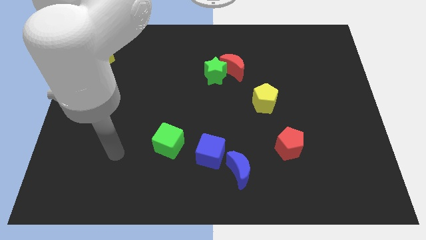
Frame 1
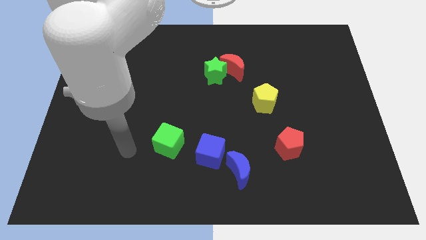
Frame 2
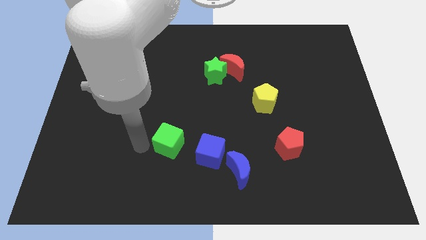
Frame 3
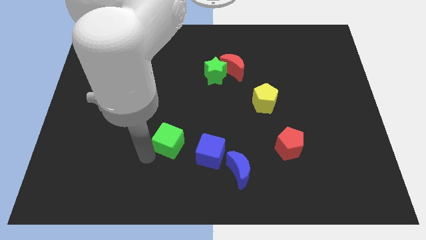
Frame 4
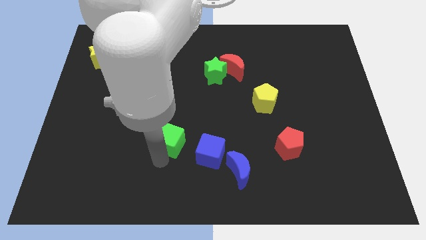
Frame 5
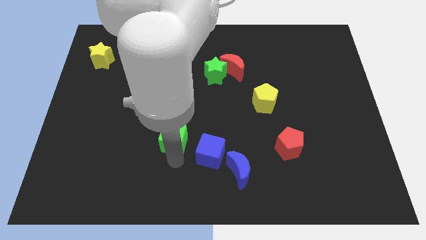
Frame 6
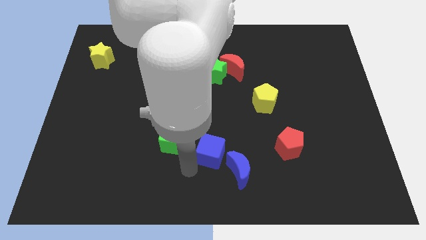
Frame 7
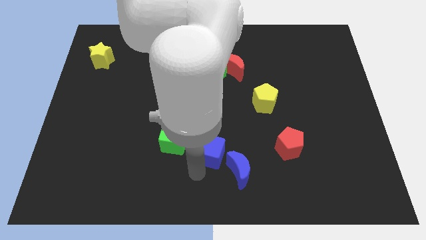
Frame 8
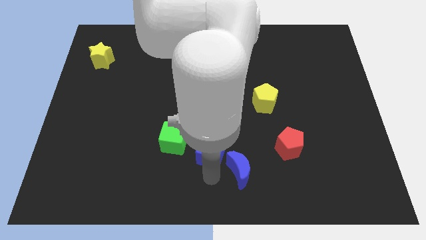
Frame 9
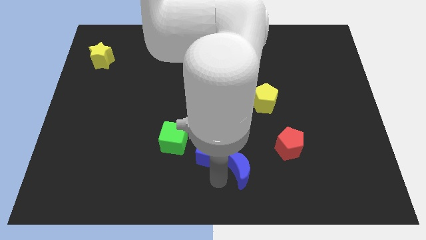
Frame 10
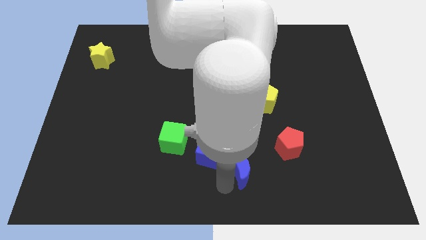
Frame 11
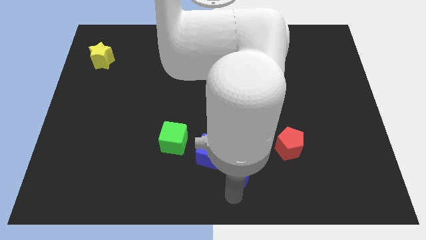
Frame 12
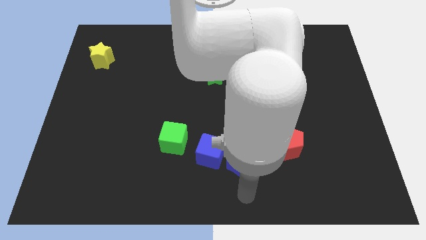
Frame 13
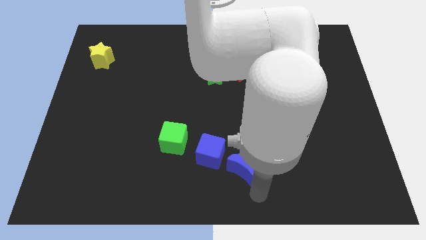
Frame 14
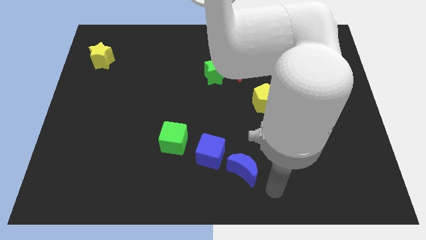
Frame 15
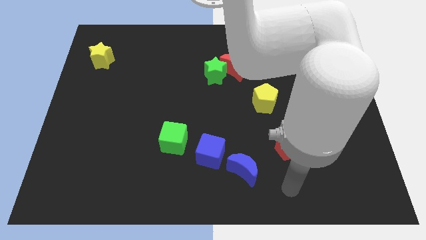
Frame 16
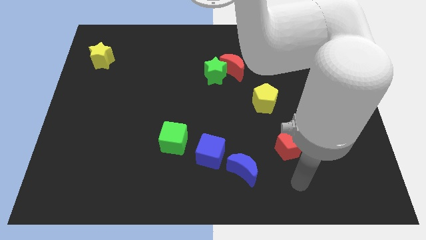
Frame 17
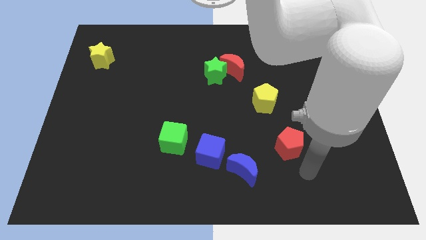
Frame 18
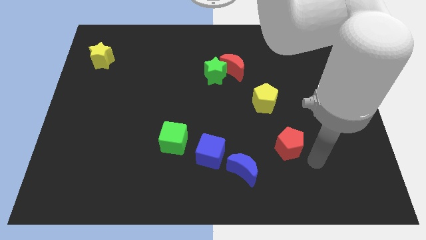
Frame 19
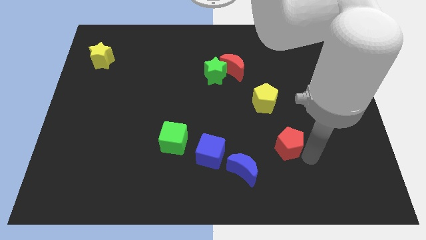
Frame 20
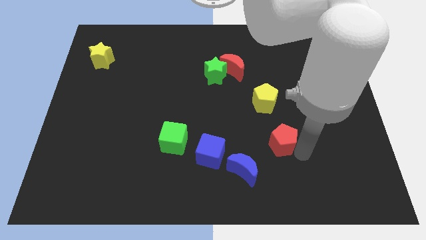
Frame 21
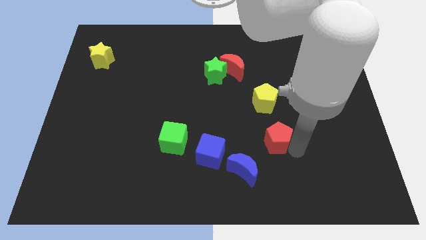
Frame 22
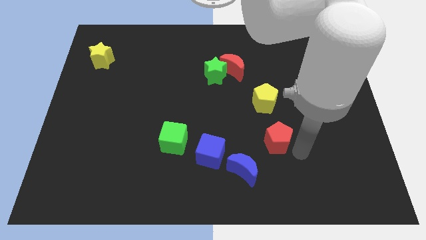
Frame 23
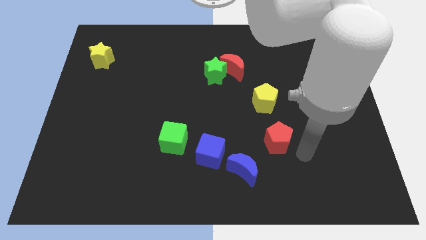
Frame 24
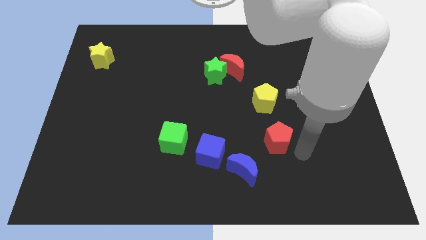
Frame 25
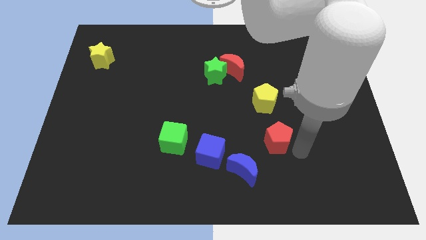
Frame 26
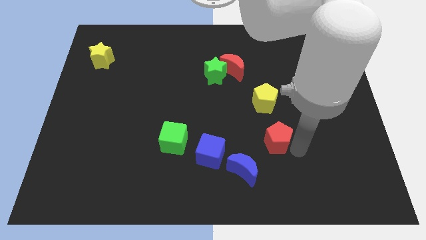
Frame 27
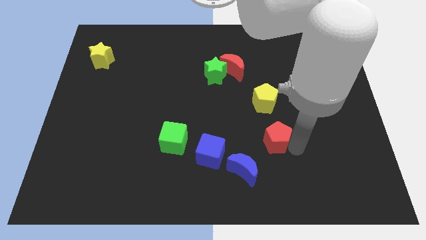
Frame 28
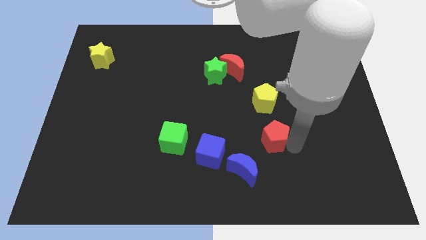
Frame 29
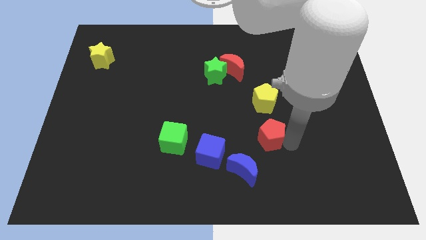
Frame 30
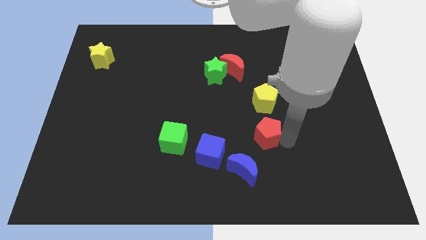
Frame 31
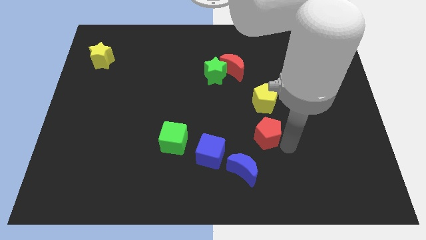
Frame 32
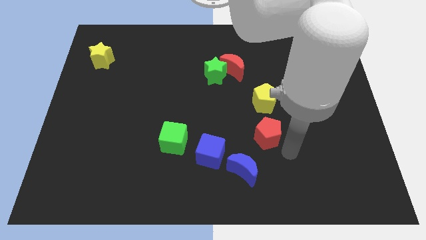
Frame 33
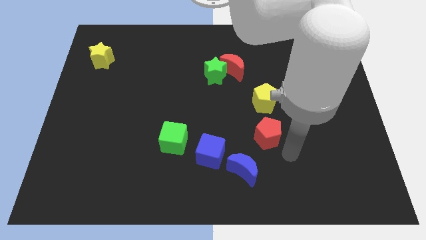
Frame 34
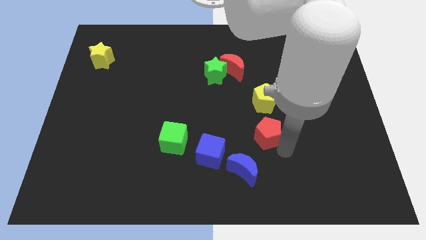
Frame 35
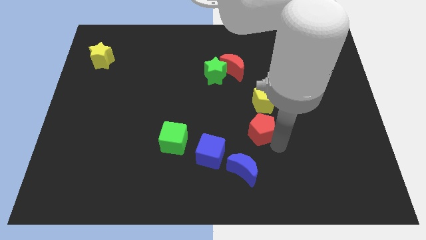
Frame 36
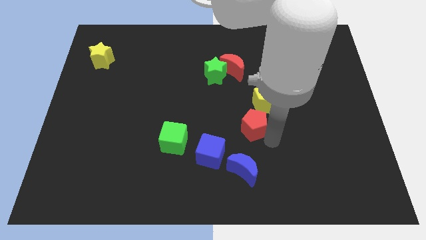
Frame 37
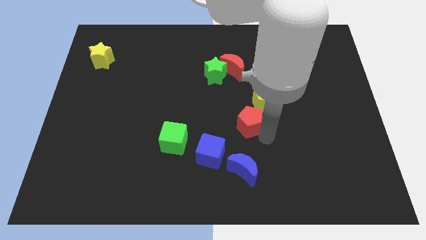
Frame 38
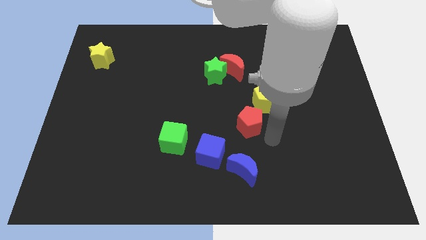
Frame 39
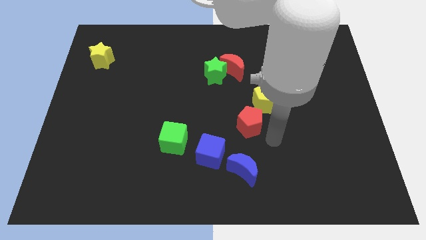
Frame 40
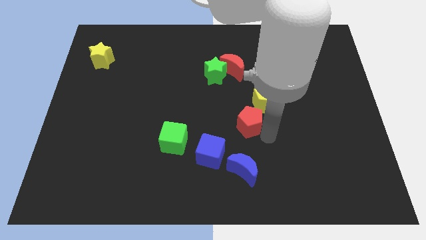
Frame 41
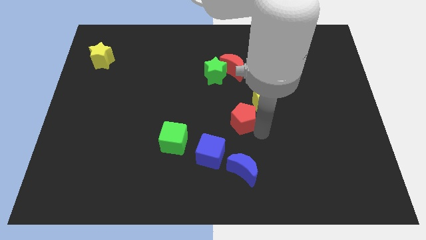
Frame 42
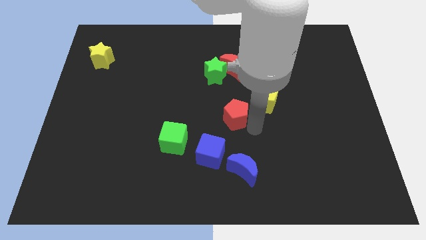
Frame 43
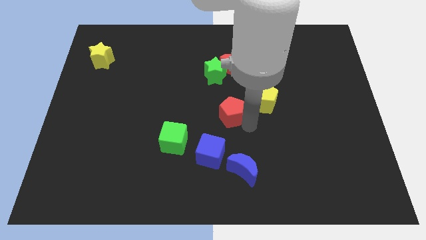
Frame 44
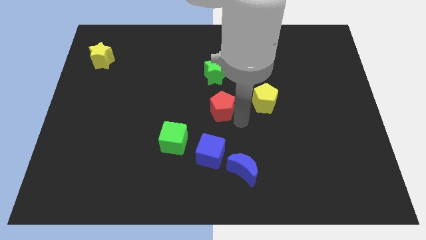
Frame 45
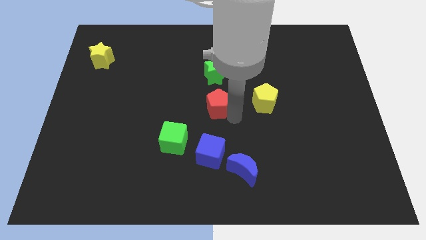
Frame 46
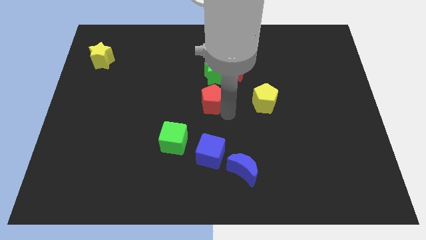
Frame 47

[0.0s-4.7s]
push the red pentagon up and left diagonally

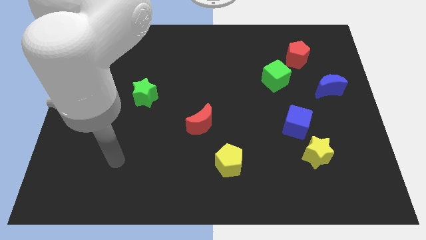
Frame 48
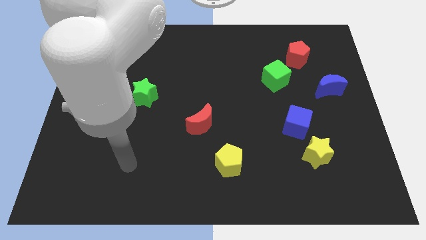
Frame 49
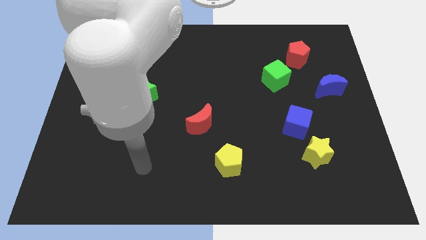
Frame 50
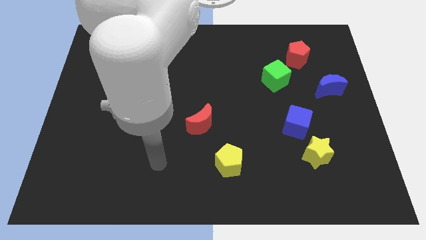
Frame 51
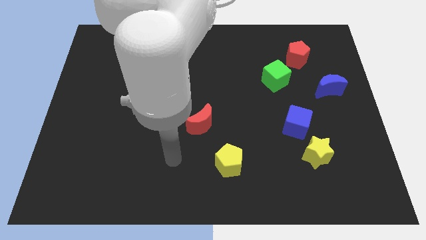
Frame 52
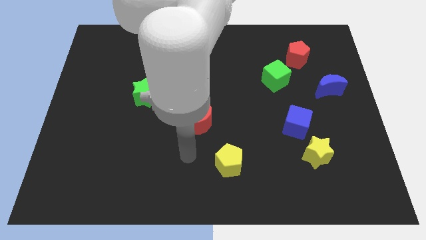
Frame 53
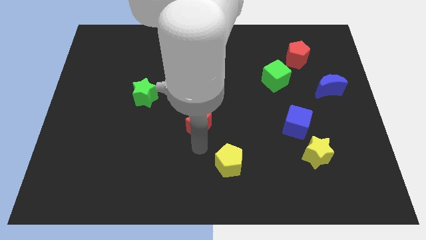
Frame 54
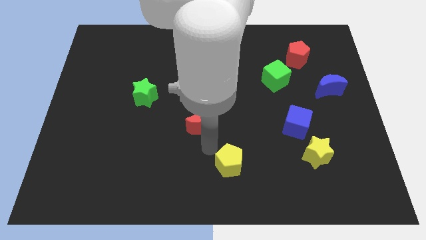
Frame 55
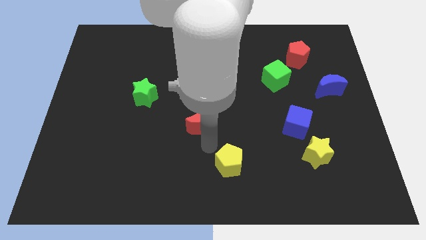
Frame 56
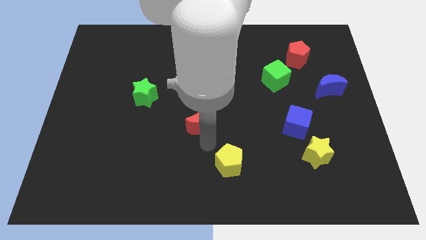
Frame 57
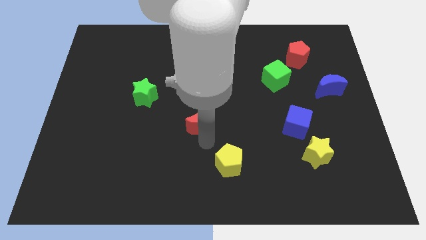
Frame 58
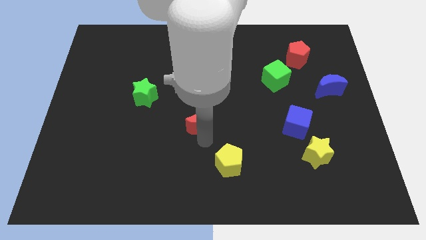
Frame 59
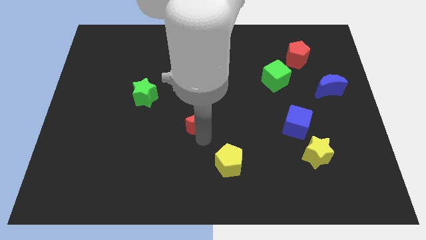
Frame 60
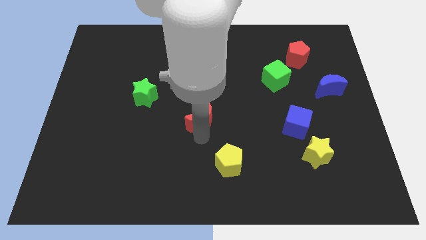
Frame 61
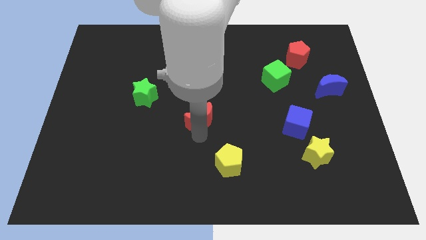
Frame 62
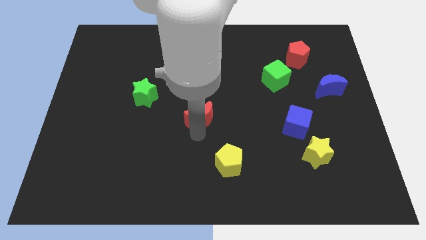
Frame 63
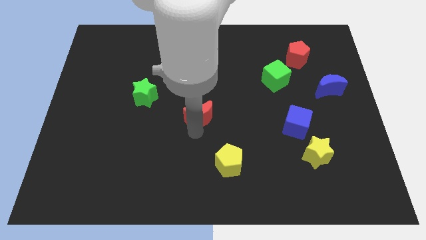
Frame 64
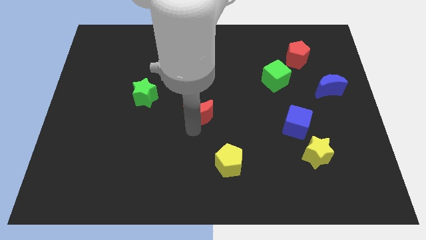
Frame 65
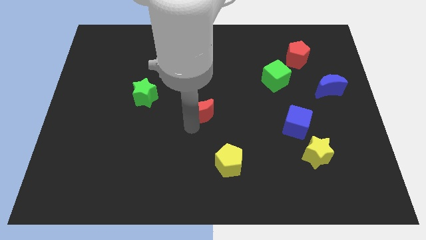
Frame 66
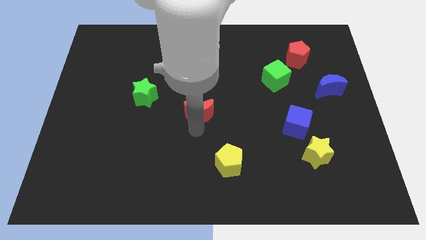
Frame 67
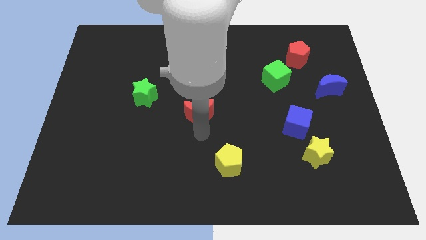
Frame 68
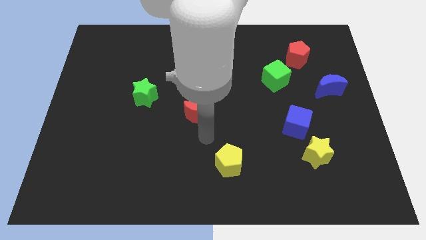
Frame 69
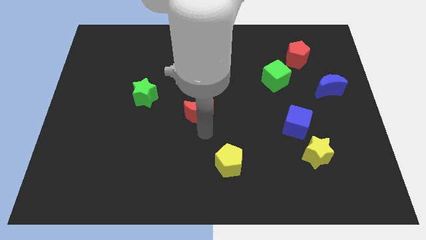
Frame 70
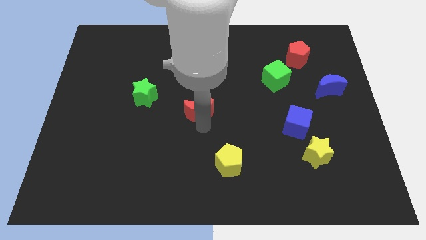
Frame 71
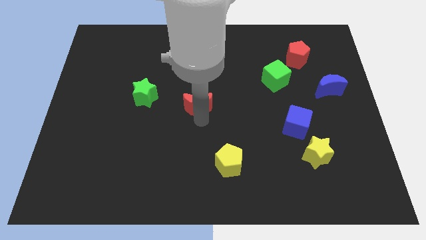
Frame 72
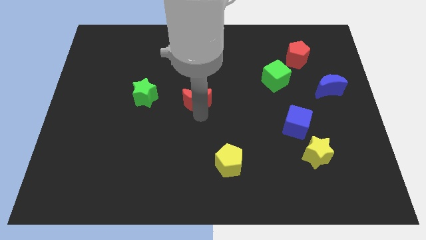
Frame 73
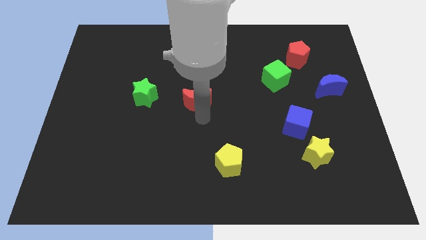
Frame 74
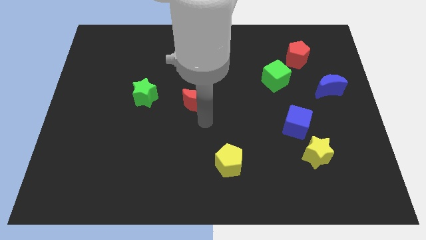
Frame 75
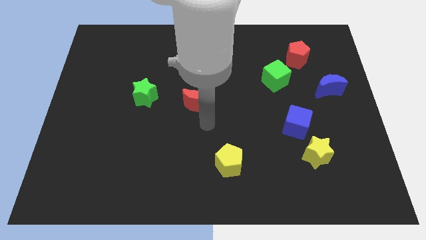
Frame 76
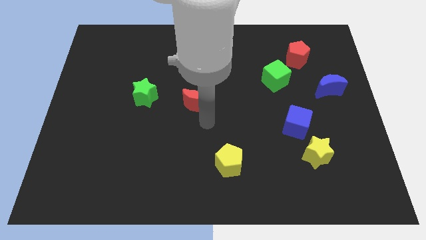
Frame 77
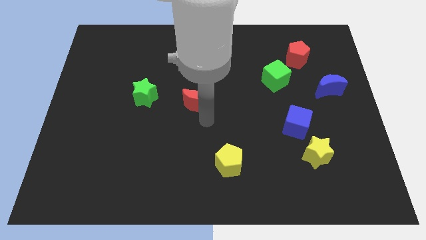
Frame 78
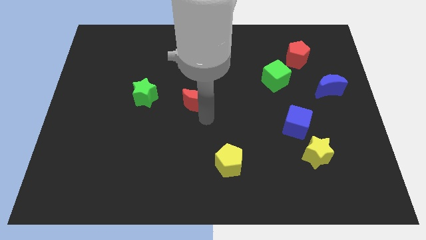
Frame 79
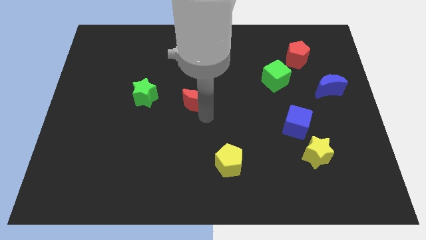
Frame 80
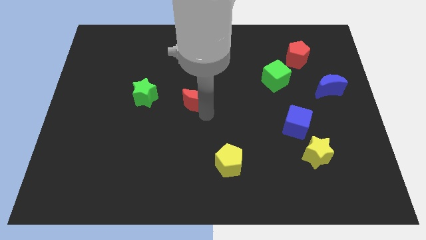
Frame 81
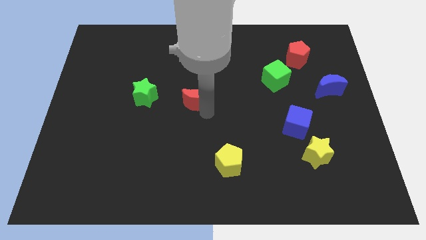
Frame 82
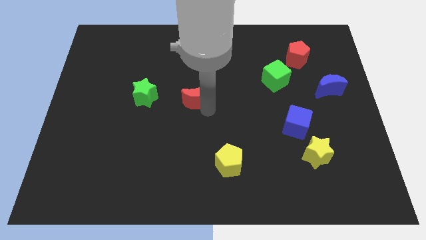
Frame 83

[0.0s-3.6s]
slightly push the red moon up
